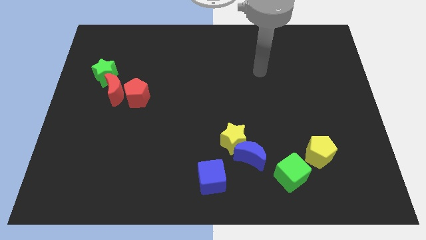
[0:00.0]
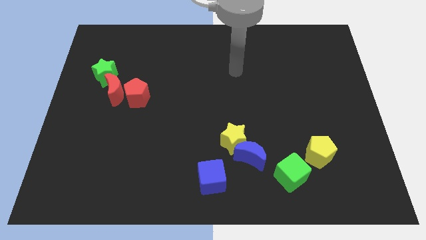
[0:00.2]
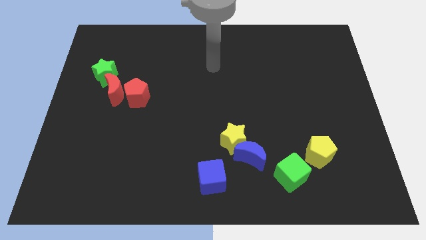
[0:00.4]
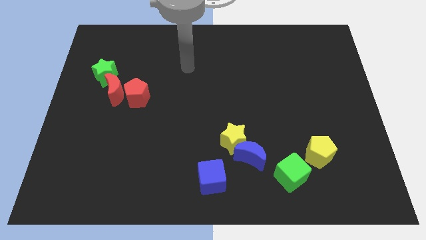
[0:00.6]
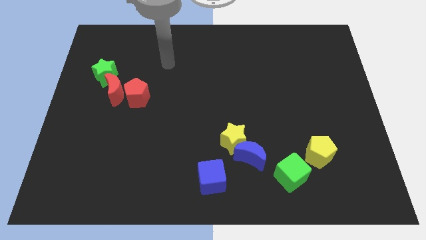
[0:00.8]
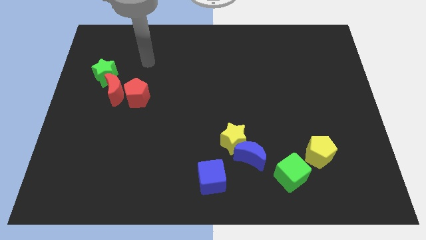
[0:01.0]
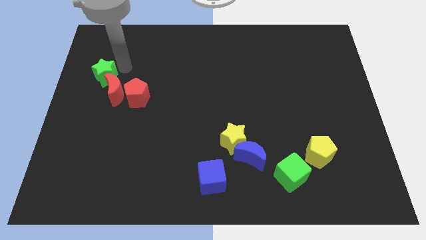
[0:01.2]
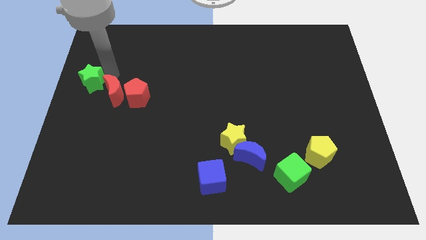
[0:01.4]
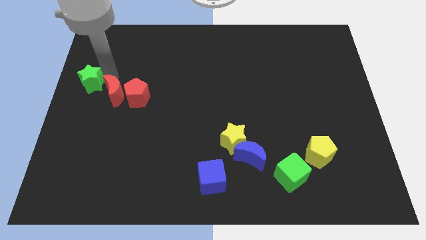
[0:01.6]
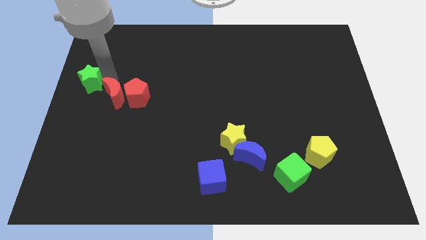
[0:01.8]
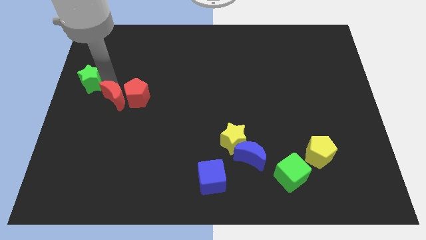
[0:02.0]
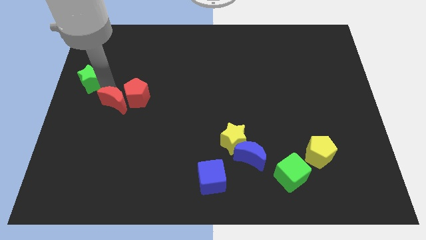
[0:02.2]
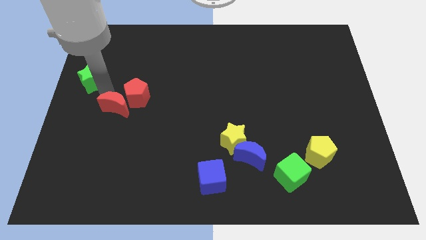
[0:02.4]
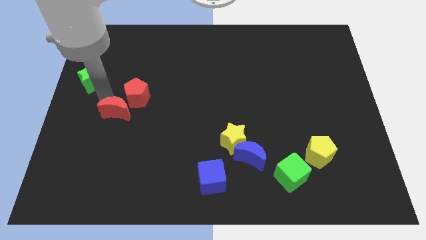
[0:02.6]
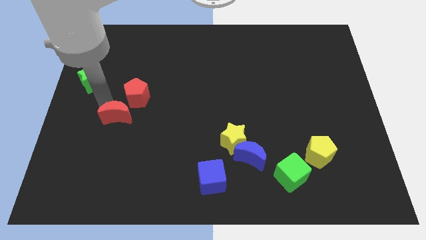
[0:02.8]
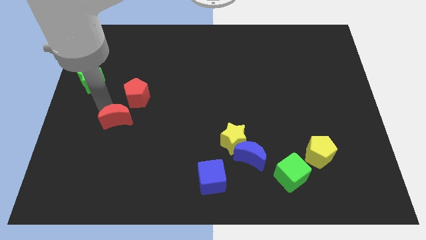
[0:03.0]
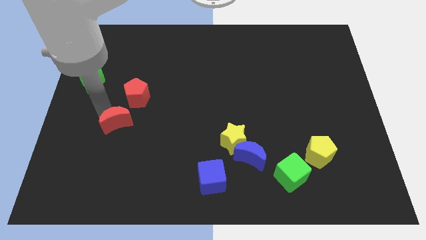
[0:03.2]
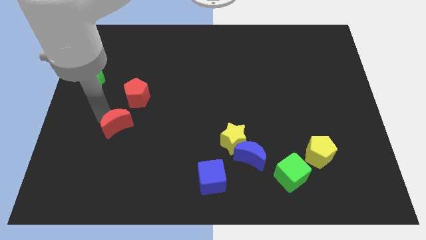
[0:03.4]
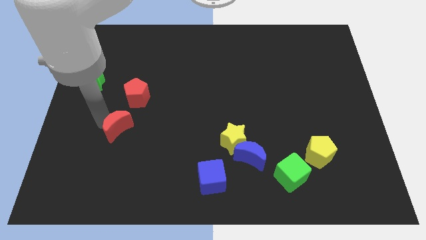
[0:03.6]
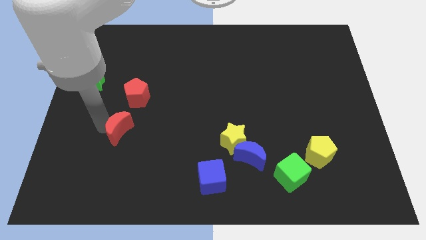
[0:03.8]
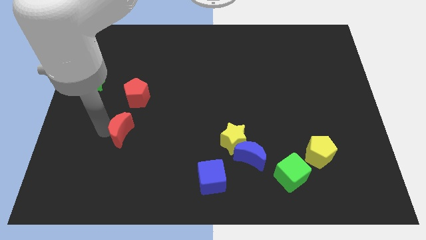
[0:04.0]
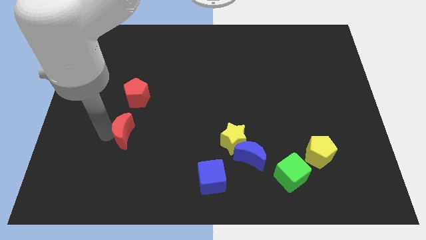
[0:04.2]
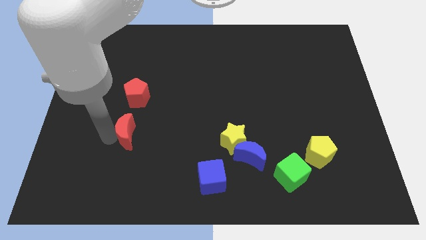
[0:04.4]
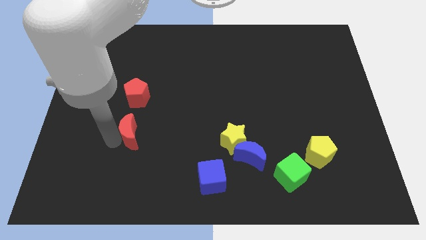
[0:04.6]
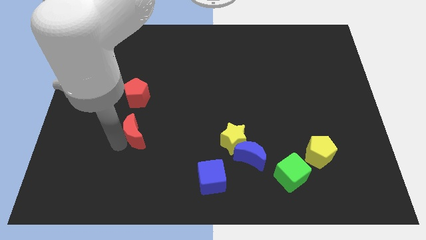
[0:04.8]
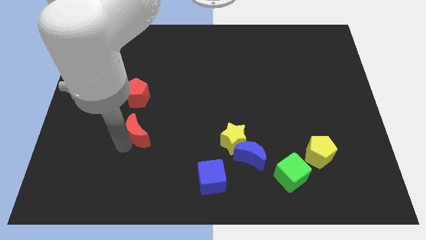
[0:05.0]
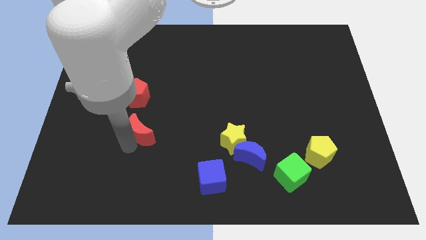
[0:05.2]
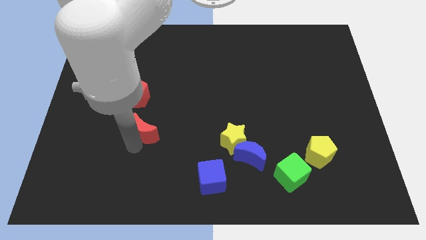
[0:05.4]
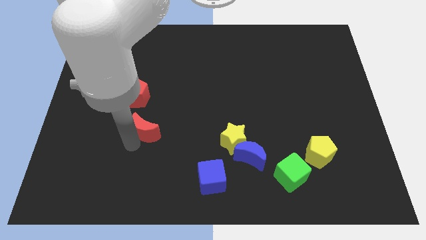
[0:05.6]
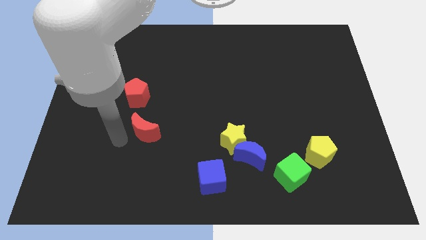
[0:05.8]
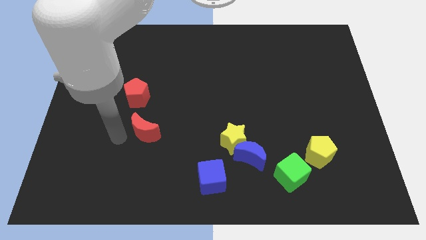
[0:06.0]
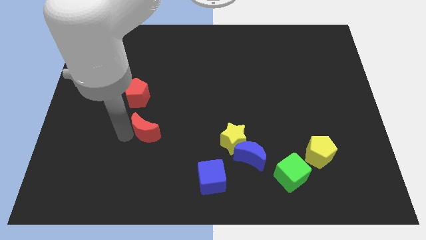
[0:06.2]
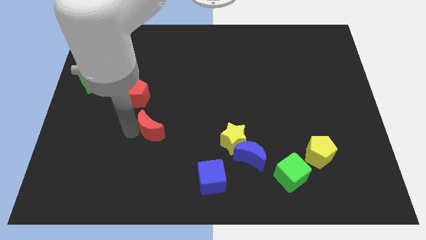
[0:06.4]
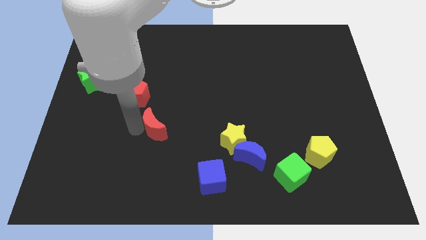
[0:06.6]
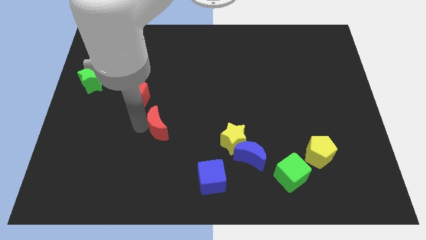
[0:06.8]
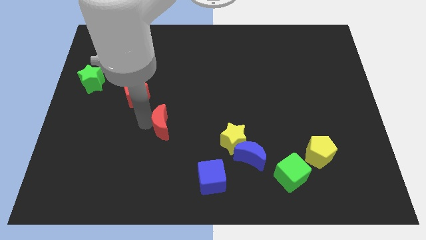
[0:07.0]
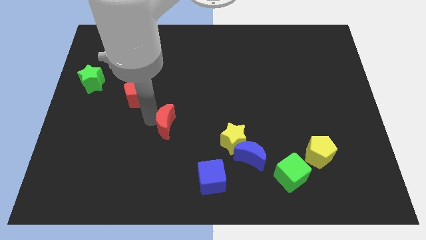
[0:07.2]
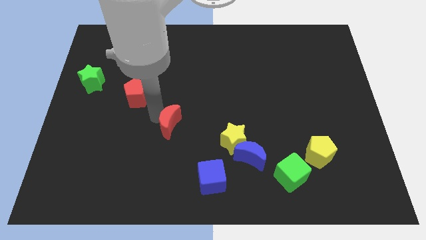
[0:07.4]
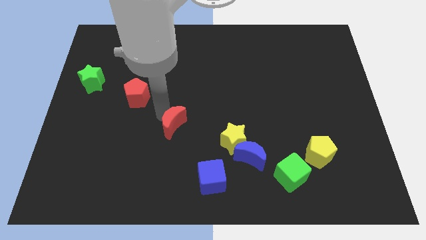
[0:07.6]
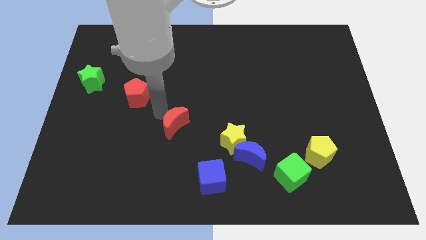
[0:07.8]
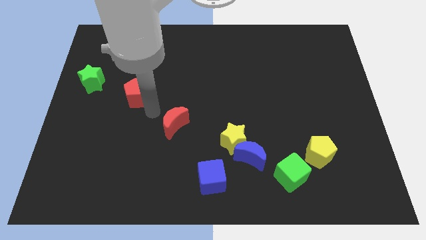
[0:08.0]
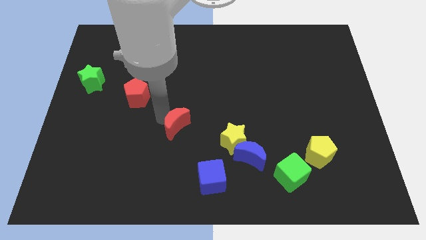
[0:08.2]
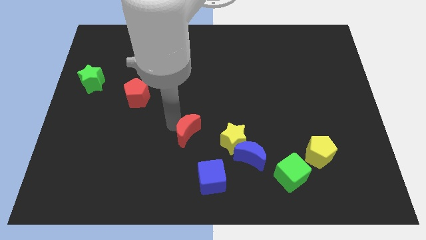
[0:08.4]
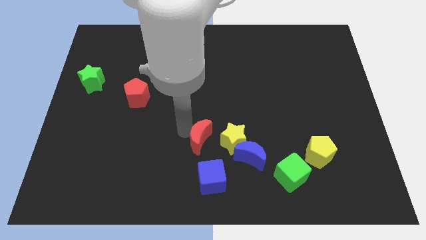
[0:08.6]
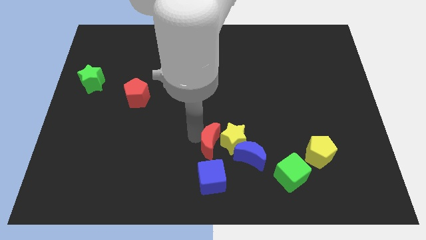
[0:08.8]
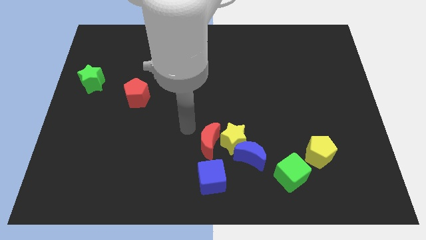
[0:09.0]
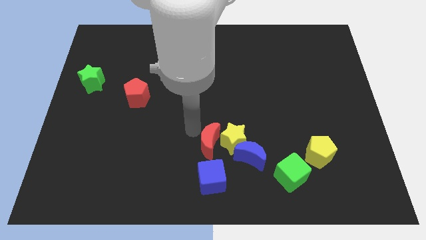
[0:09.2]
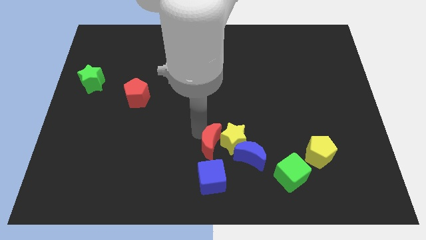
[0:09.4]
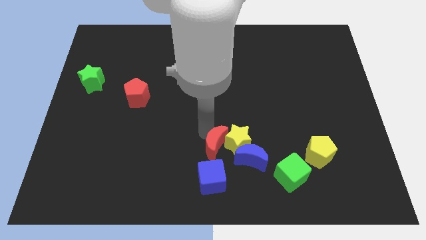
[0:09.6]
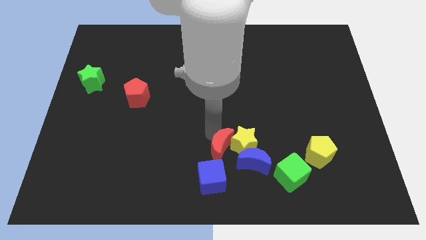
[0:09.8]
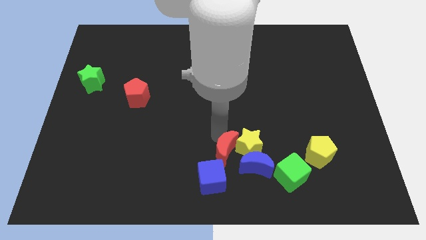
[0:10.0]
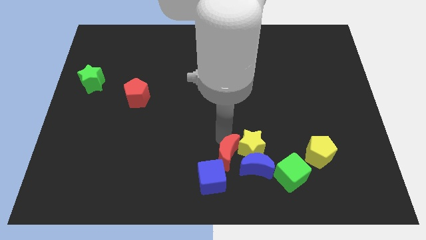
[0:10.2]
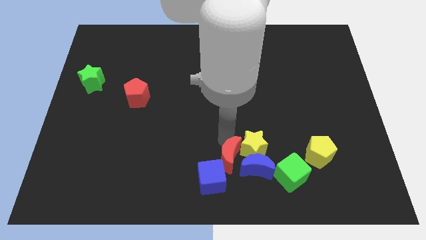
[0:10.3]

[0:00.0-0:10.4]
move the red moon towards the blue moon

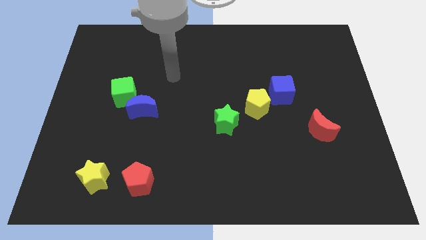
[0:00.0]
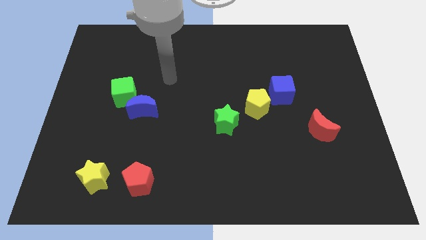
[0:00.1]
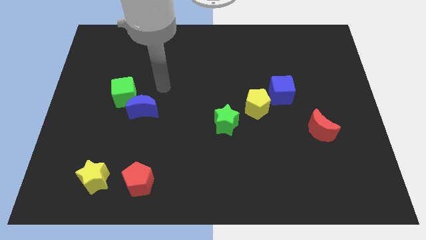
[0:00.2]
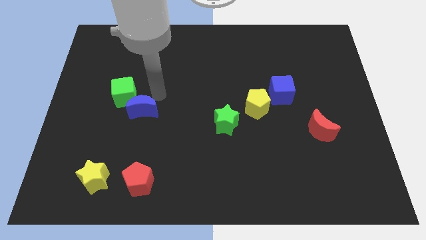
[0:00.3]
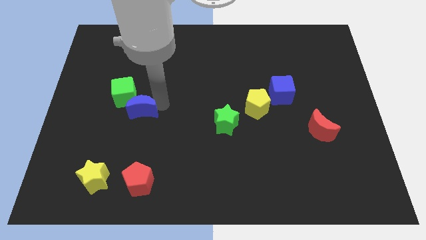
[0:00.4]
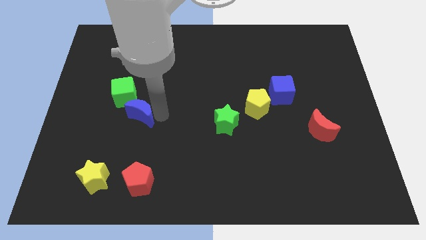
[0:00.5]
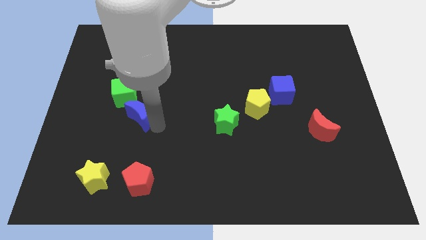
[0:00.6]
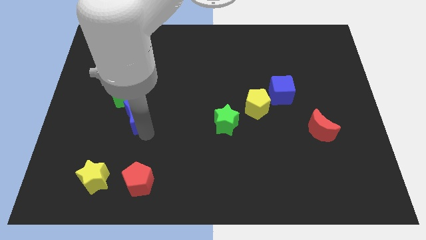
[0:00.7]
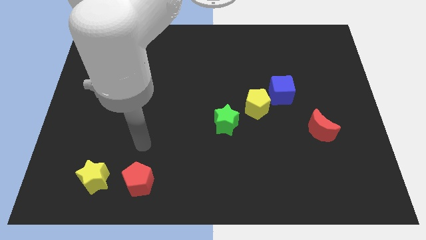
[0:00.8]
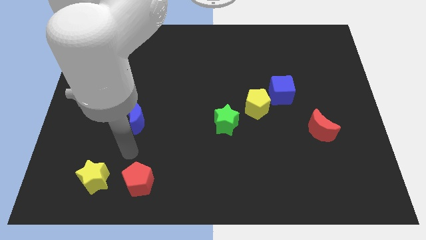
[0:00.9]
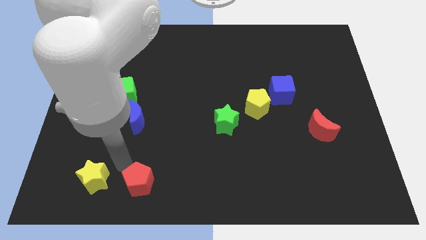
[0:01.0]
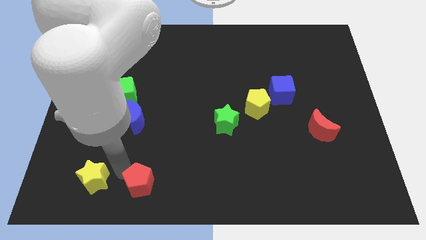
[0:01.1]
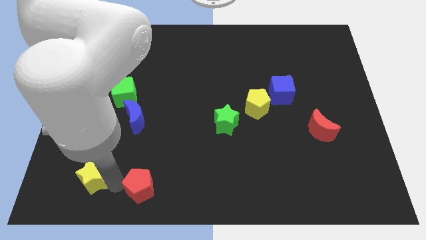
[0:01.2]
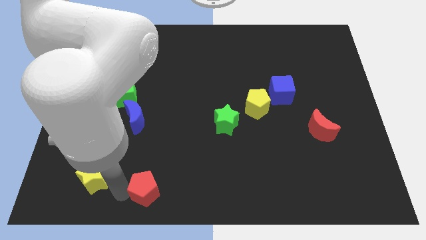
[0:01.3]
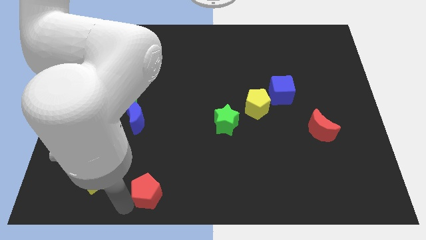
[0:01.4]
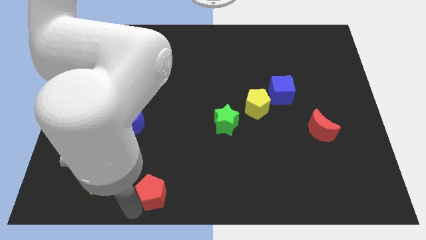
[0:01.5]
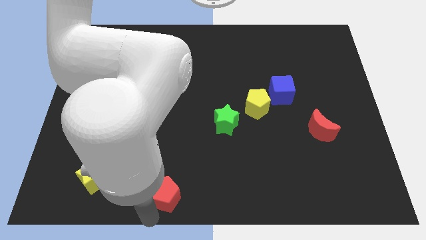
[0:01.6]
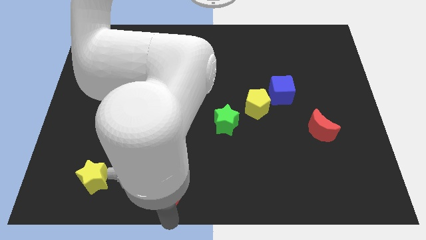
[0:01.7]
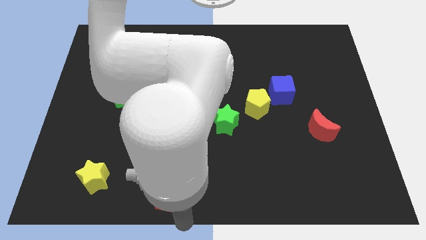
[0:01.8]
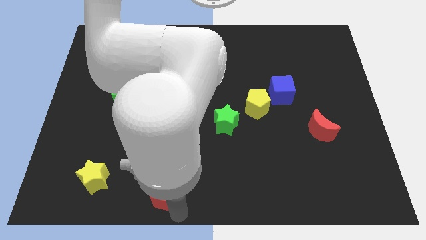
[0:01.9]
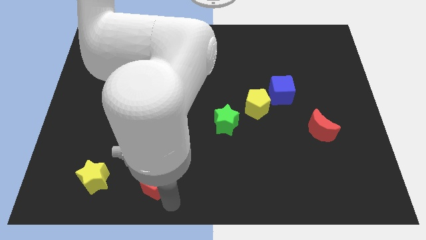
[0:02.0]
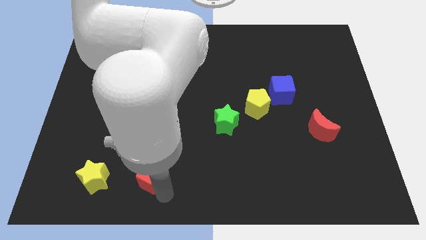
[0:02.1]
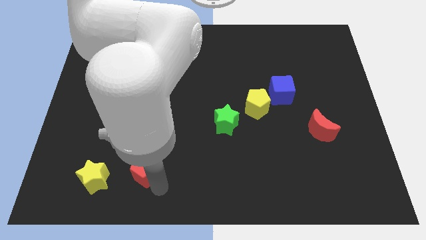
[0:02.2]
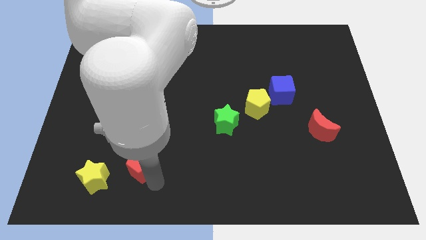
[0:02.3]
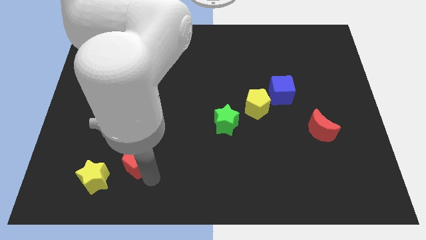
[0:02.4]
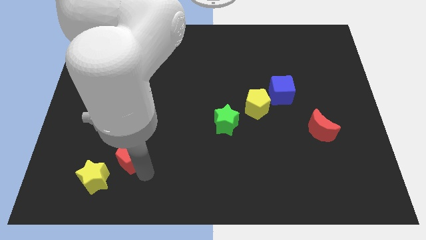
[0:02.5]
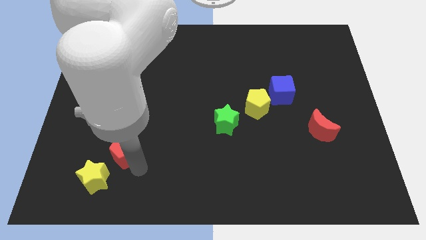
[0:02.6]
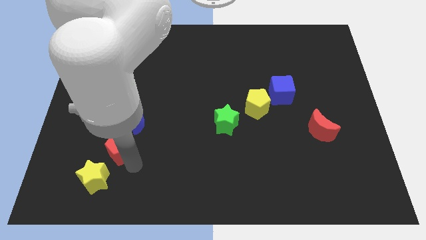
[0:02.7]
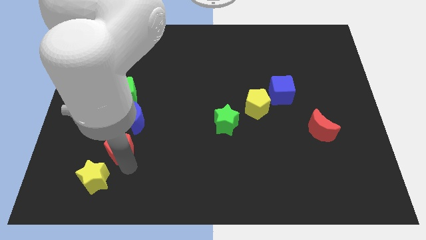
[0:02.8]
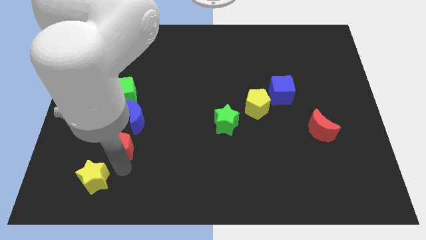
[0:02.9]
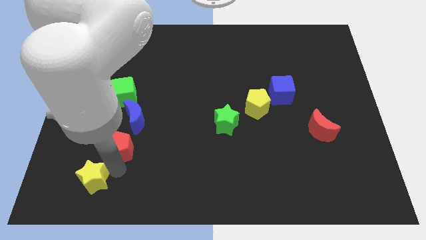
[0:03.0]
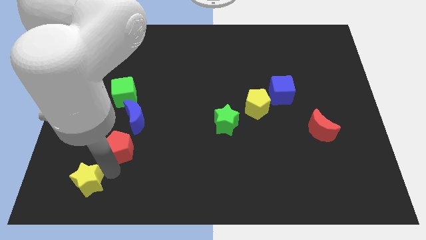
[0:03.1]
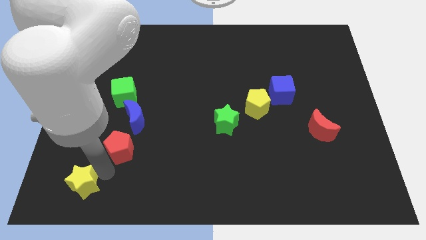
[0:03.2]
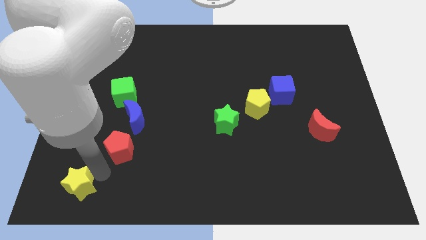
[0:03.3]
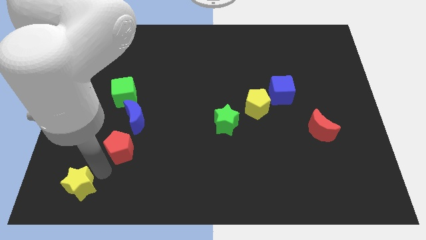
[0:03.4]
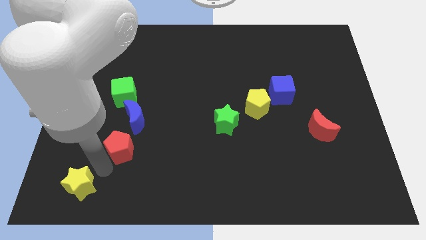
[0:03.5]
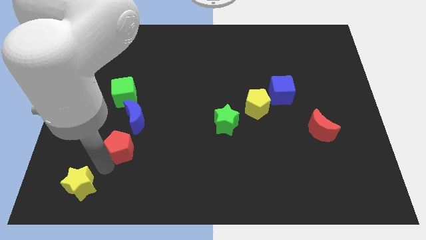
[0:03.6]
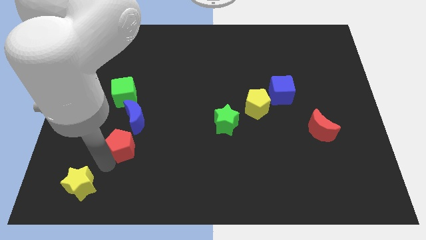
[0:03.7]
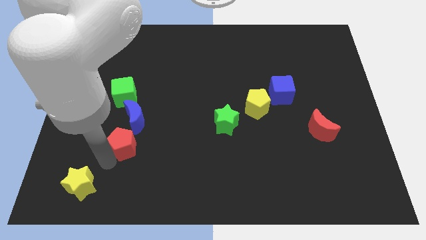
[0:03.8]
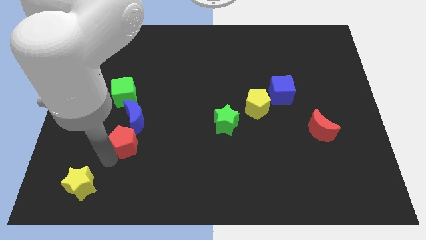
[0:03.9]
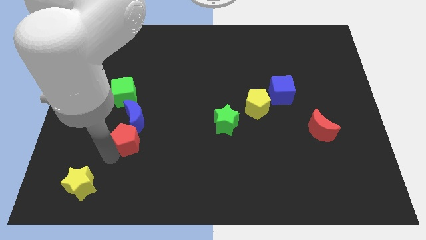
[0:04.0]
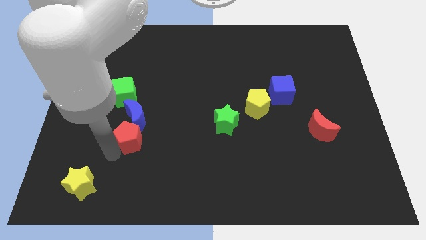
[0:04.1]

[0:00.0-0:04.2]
put the red pentagon to the blue moon
